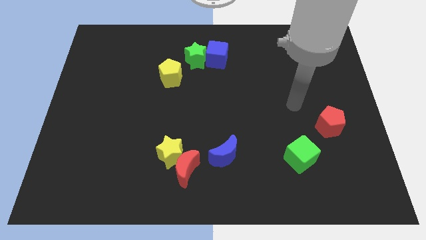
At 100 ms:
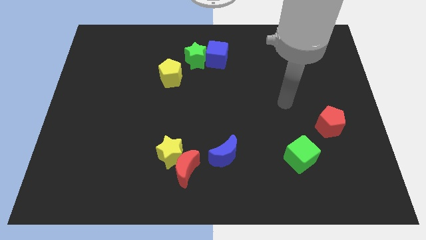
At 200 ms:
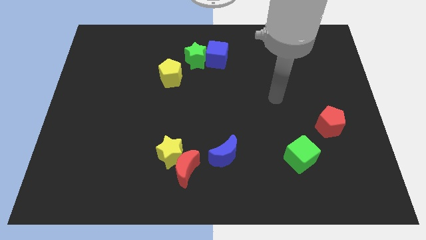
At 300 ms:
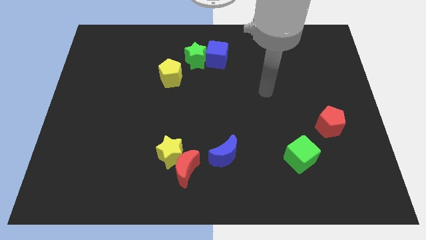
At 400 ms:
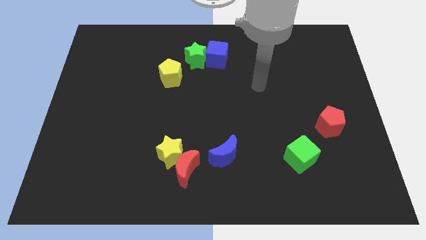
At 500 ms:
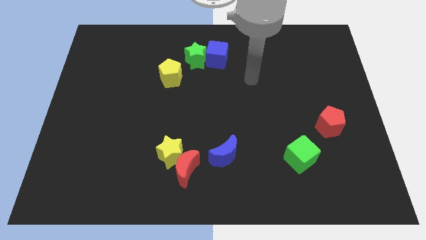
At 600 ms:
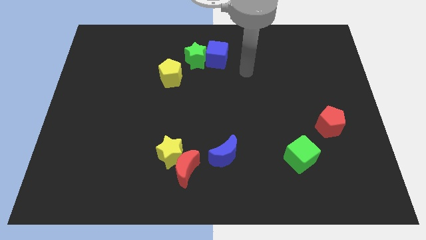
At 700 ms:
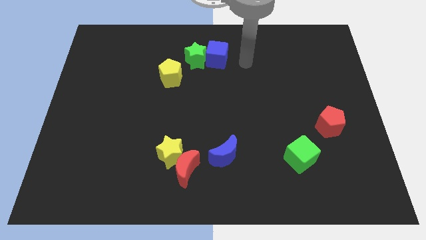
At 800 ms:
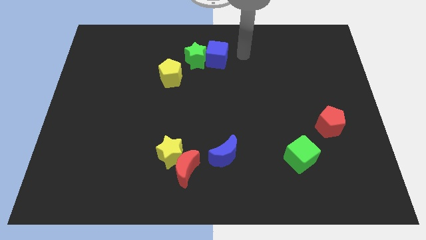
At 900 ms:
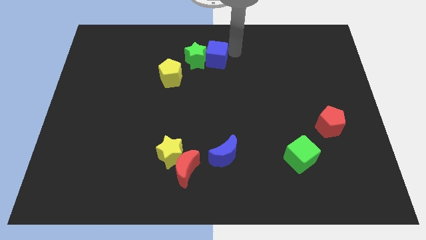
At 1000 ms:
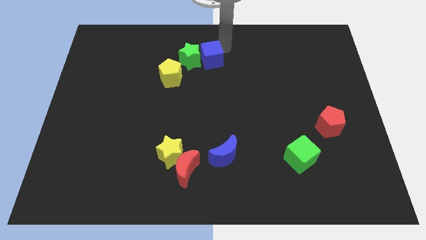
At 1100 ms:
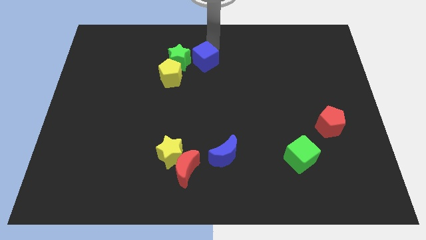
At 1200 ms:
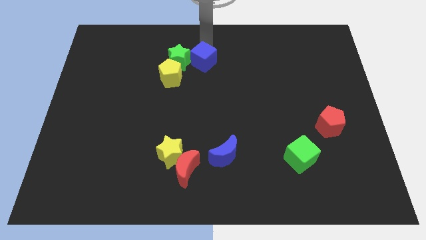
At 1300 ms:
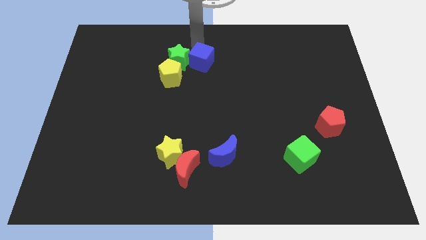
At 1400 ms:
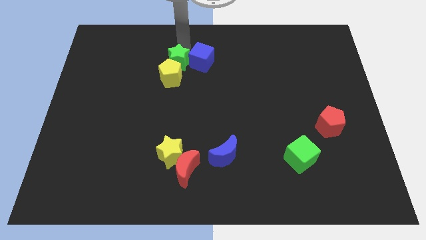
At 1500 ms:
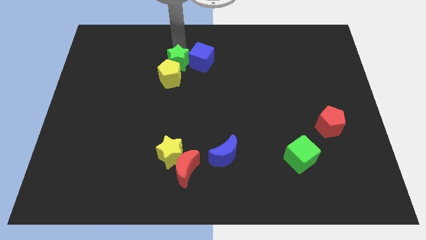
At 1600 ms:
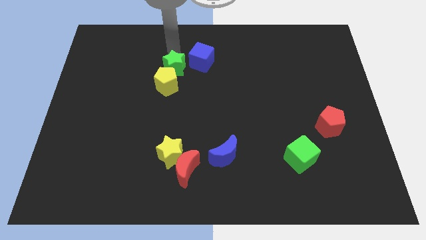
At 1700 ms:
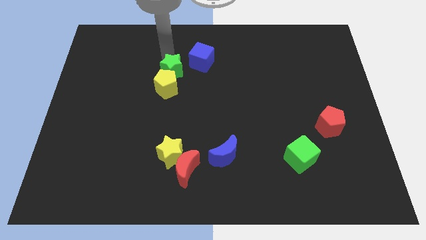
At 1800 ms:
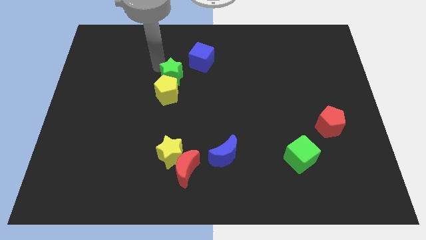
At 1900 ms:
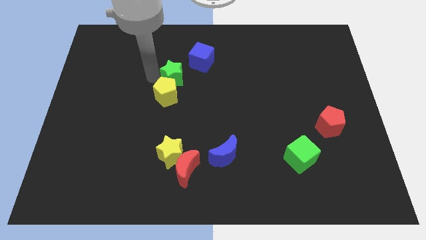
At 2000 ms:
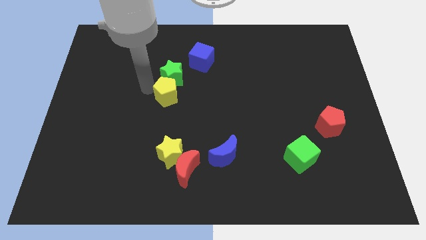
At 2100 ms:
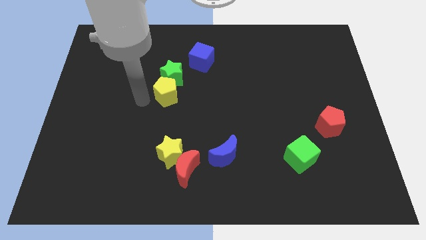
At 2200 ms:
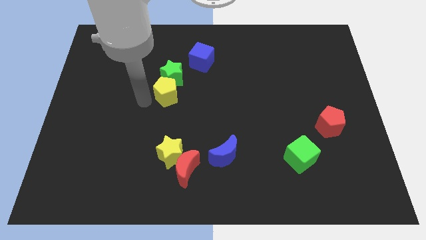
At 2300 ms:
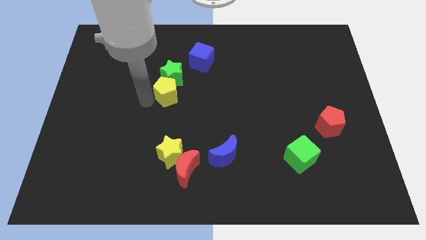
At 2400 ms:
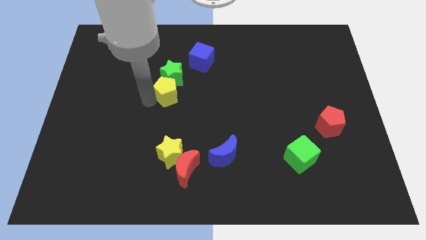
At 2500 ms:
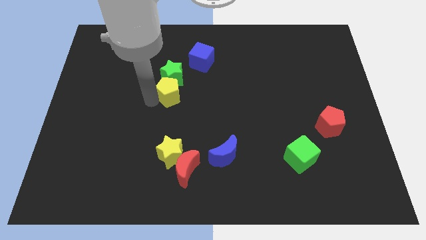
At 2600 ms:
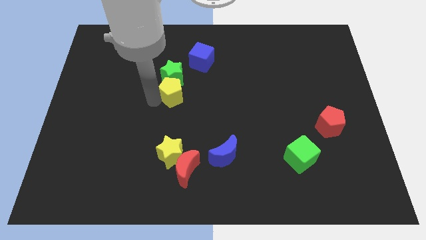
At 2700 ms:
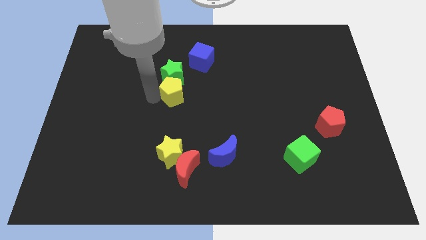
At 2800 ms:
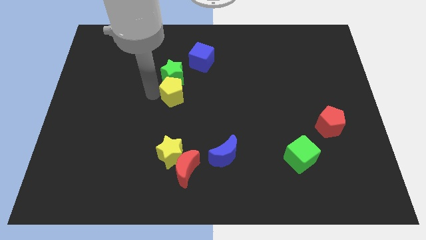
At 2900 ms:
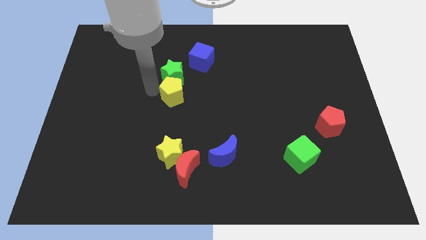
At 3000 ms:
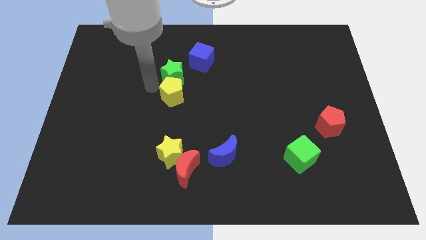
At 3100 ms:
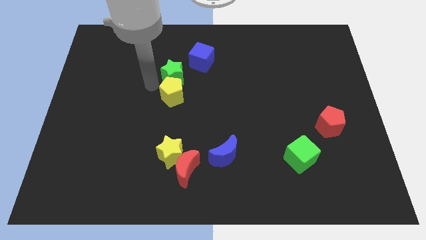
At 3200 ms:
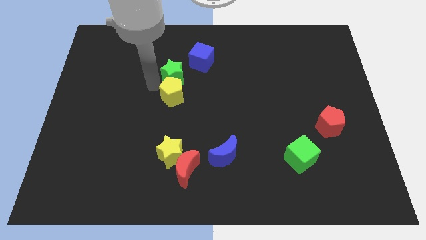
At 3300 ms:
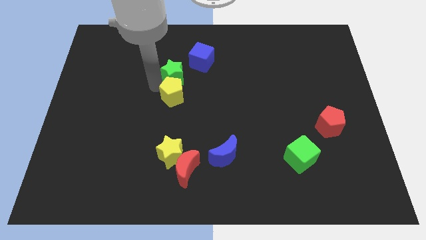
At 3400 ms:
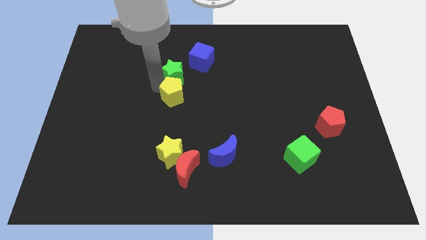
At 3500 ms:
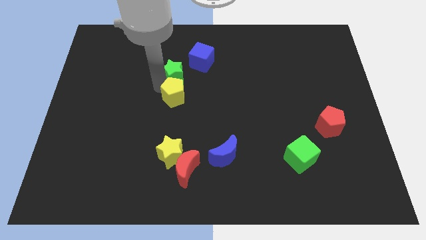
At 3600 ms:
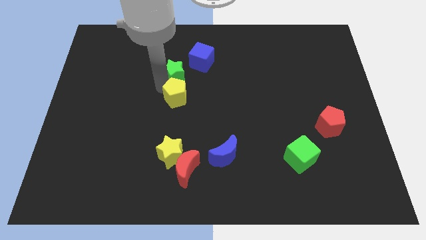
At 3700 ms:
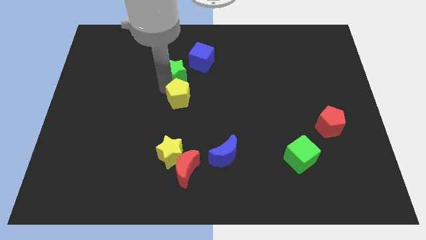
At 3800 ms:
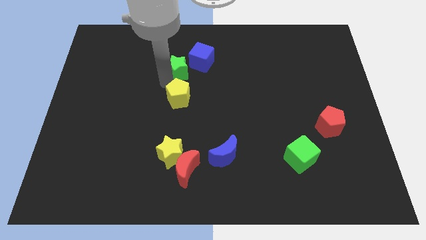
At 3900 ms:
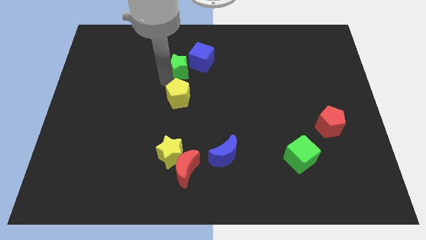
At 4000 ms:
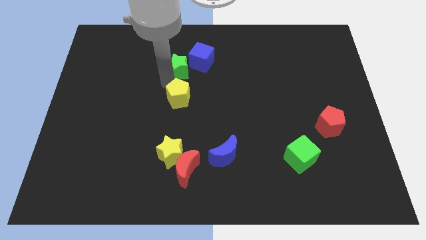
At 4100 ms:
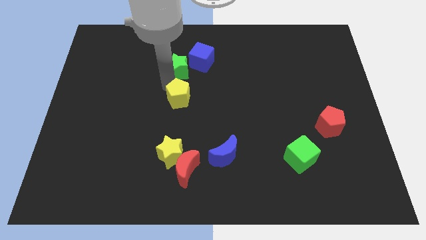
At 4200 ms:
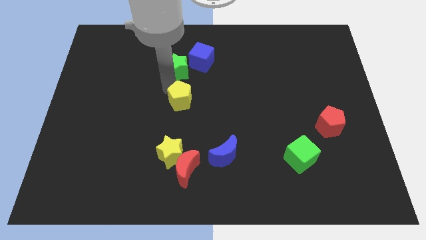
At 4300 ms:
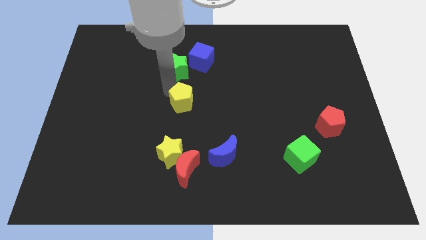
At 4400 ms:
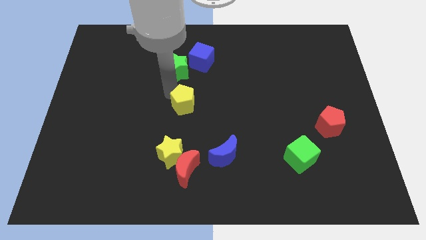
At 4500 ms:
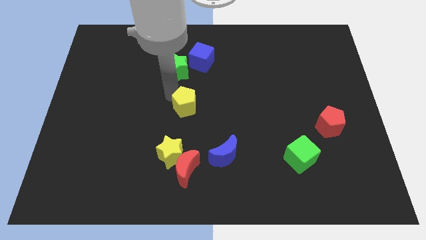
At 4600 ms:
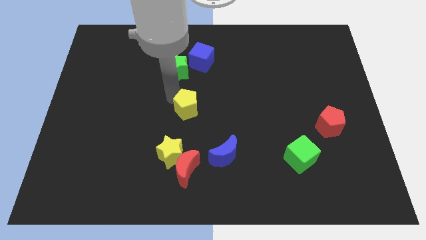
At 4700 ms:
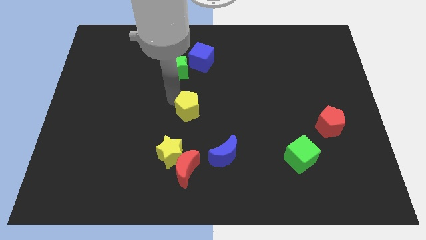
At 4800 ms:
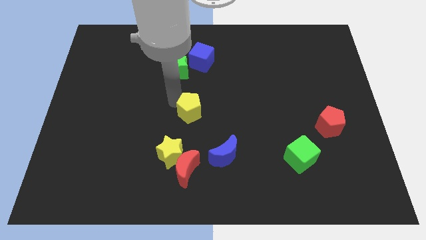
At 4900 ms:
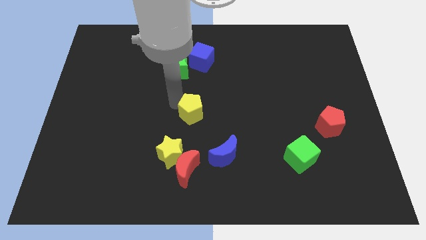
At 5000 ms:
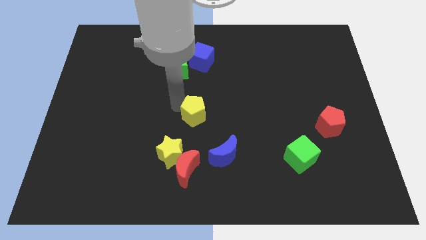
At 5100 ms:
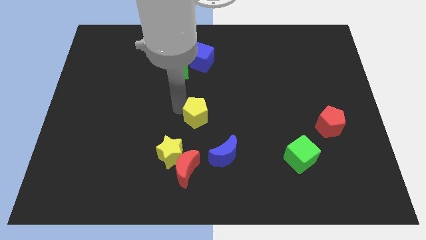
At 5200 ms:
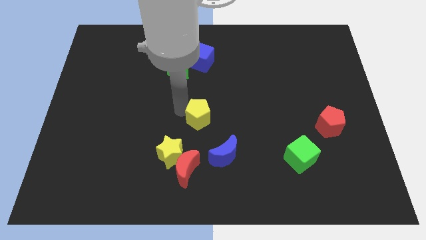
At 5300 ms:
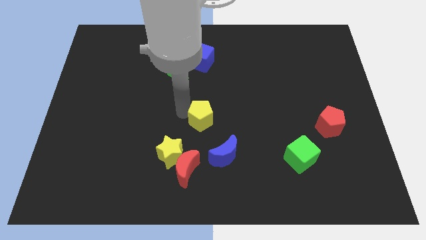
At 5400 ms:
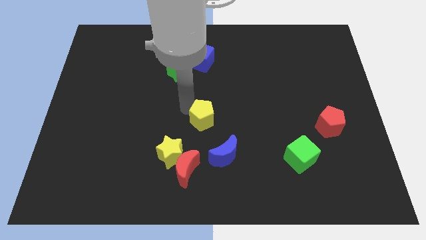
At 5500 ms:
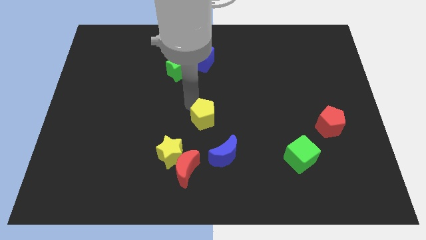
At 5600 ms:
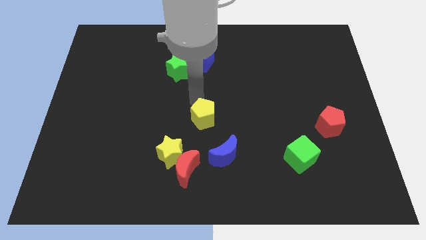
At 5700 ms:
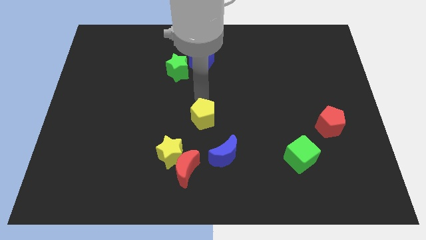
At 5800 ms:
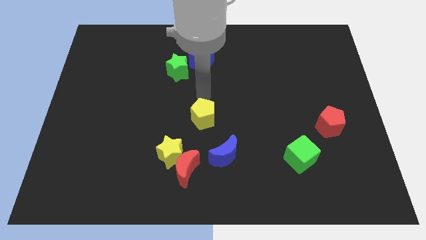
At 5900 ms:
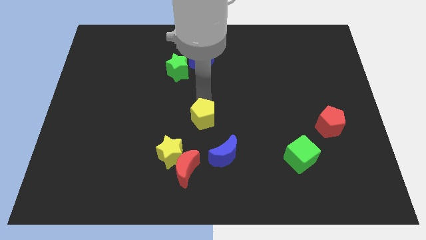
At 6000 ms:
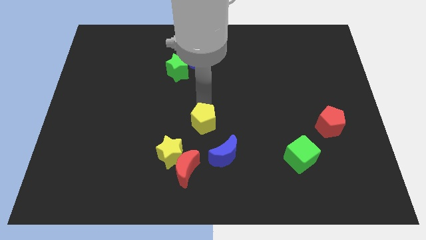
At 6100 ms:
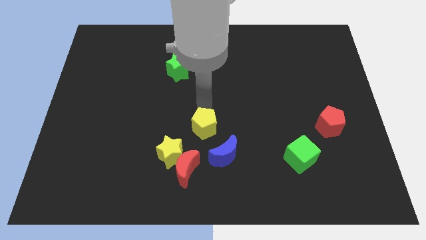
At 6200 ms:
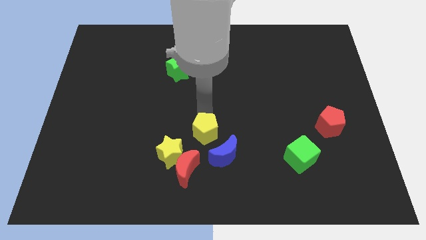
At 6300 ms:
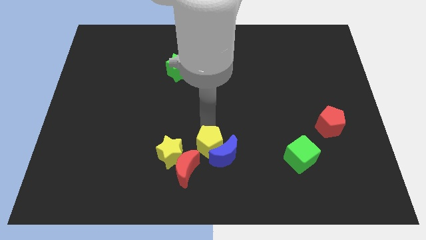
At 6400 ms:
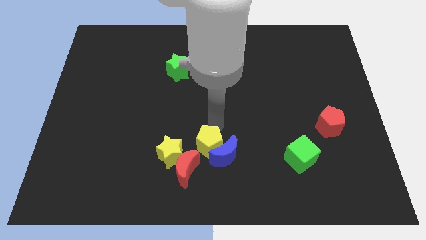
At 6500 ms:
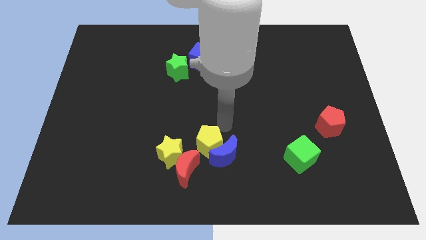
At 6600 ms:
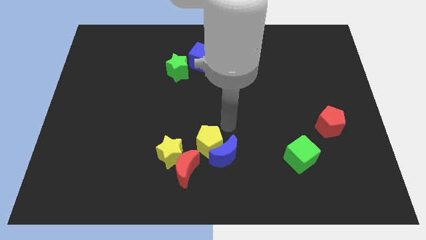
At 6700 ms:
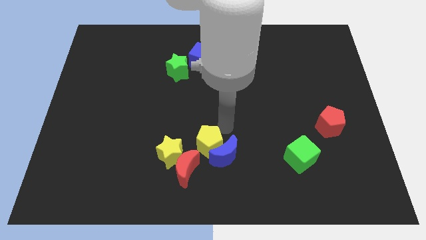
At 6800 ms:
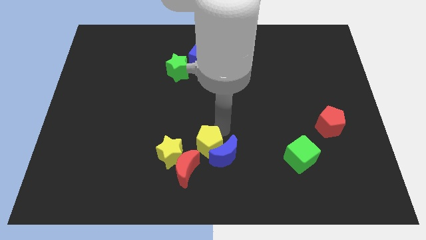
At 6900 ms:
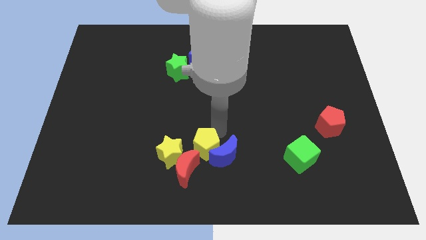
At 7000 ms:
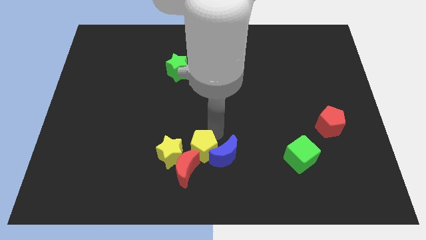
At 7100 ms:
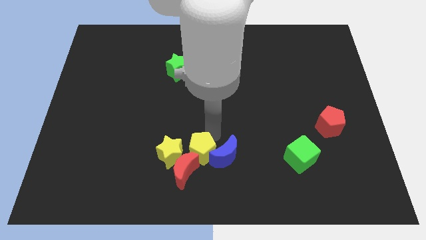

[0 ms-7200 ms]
slide the yellow pentagon towards the red moon

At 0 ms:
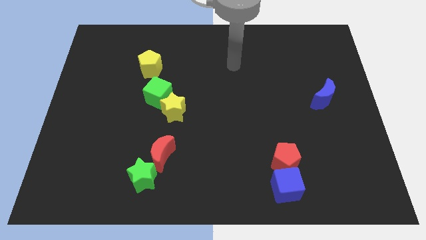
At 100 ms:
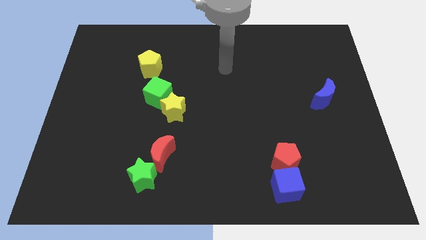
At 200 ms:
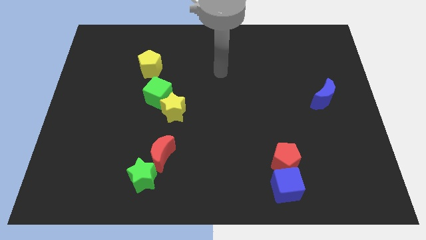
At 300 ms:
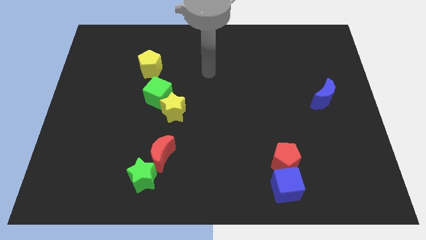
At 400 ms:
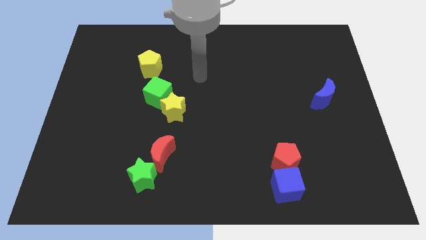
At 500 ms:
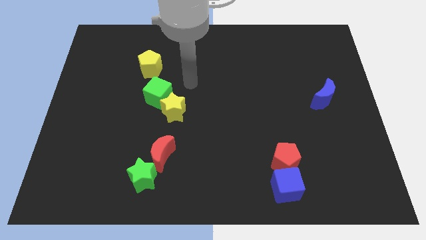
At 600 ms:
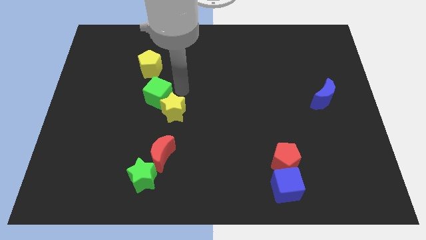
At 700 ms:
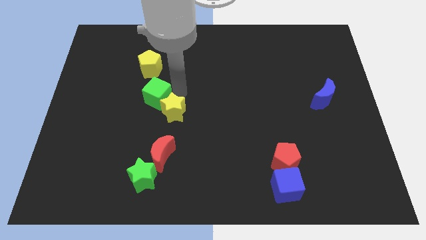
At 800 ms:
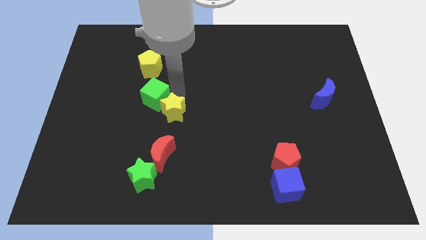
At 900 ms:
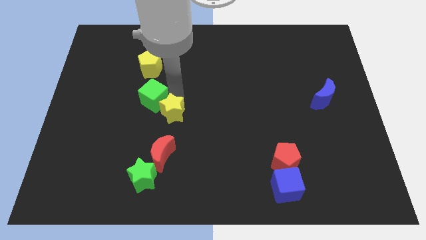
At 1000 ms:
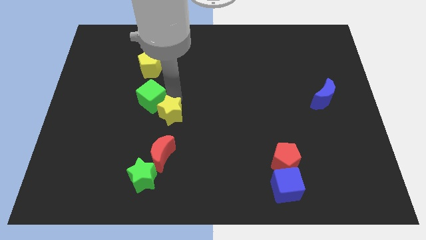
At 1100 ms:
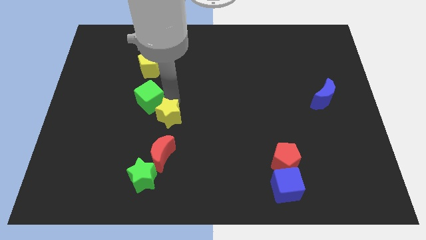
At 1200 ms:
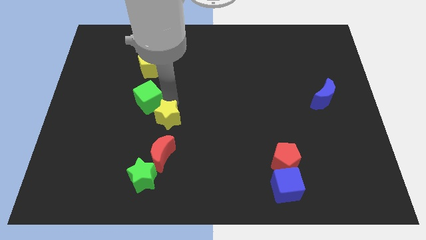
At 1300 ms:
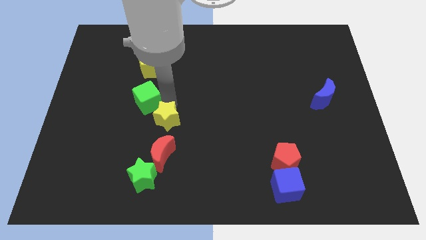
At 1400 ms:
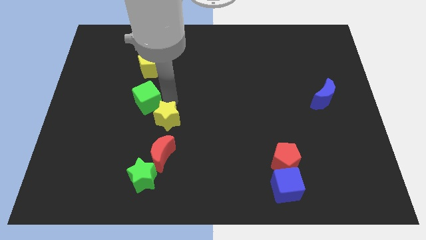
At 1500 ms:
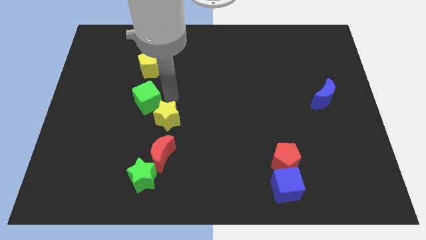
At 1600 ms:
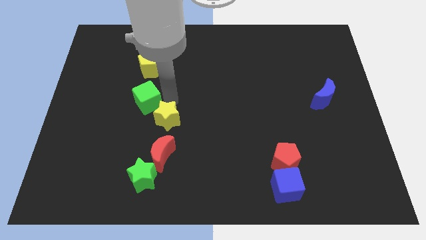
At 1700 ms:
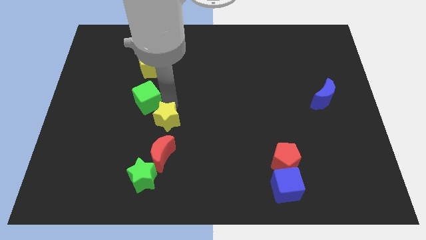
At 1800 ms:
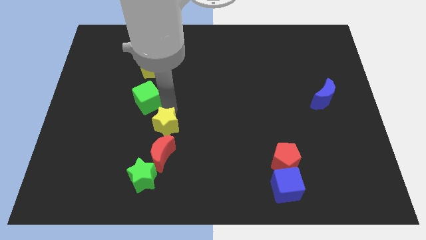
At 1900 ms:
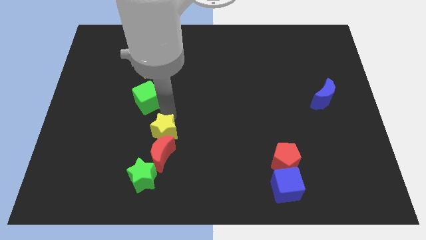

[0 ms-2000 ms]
move the yellow star to the red moon
